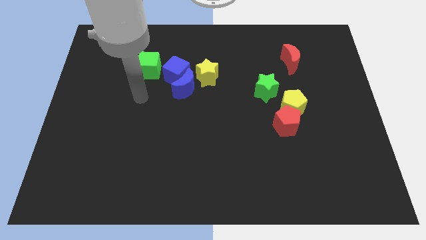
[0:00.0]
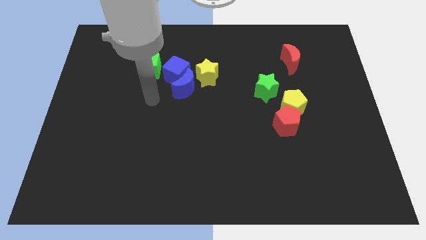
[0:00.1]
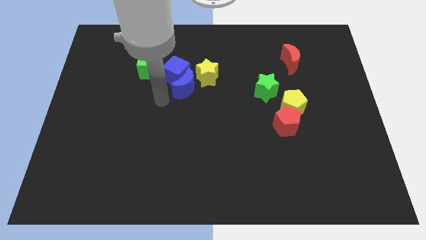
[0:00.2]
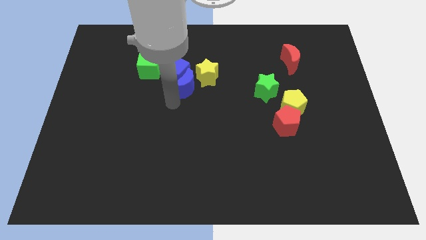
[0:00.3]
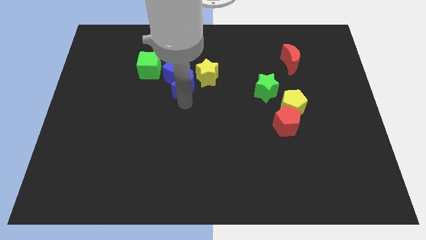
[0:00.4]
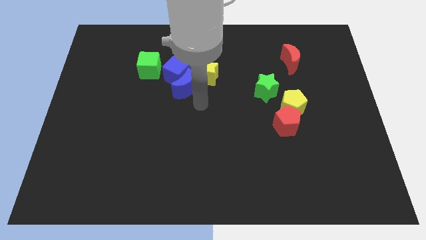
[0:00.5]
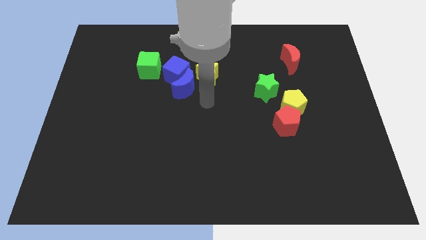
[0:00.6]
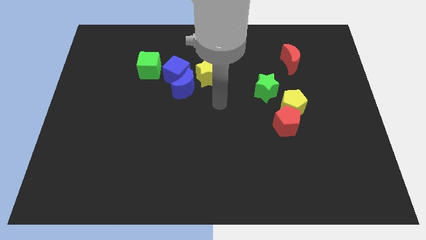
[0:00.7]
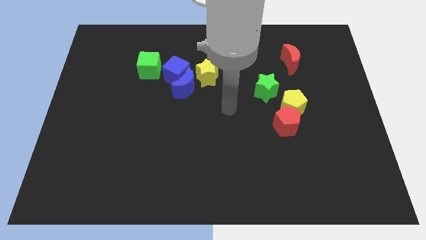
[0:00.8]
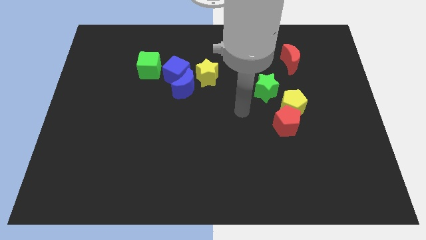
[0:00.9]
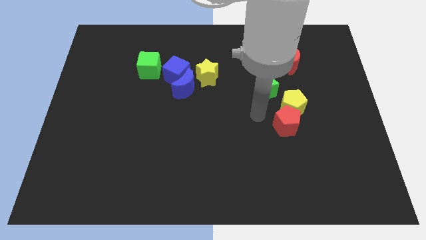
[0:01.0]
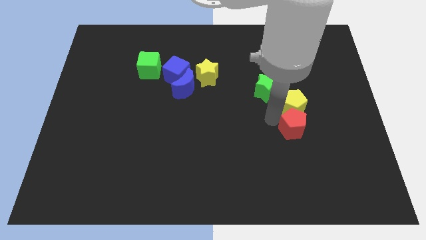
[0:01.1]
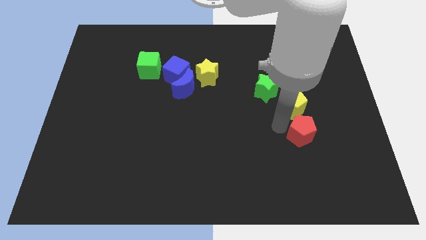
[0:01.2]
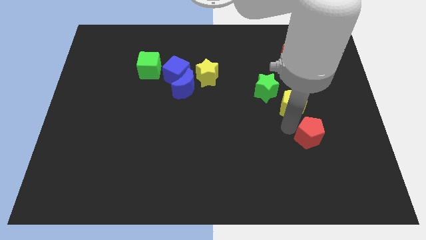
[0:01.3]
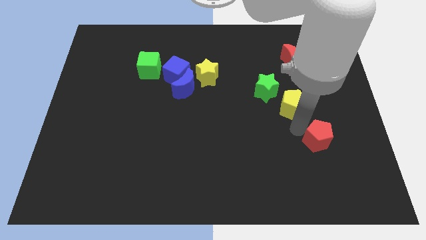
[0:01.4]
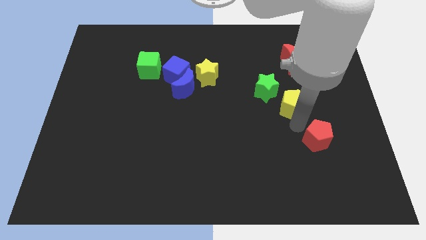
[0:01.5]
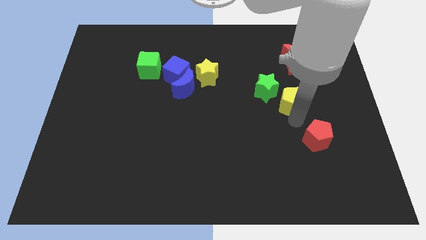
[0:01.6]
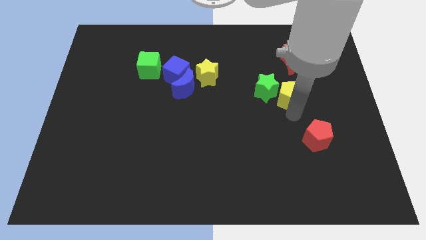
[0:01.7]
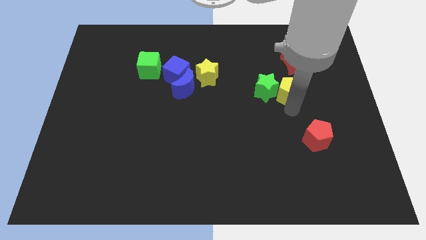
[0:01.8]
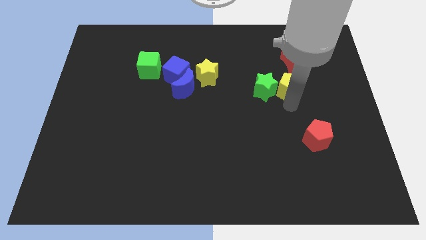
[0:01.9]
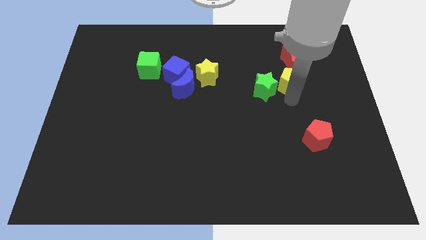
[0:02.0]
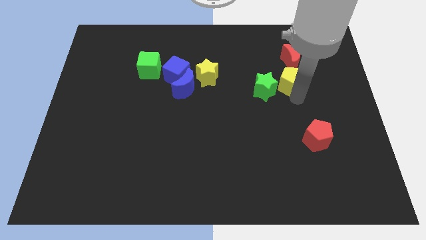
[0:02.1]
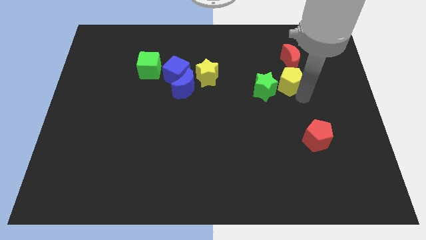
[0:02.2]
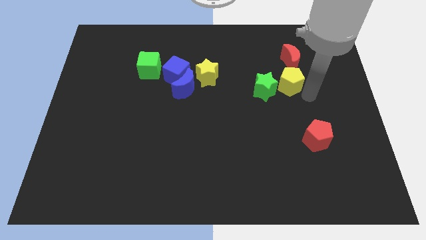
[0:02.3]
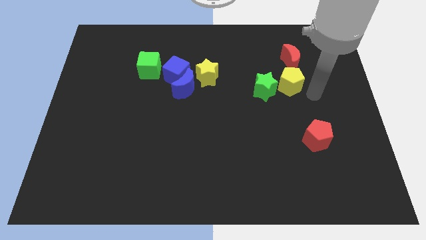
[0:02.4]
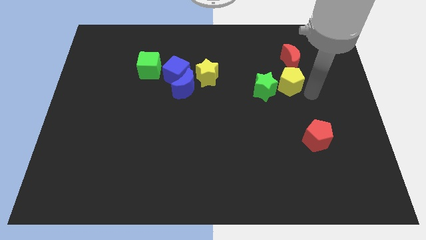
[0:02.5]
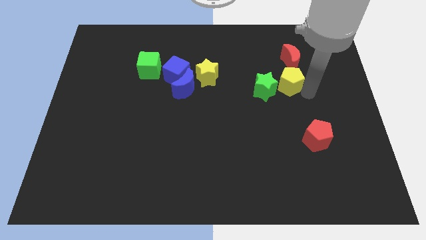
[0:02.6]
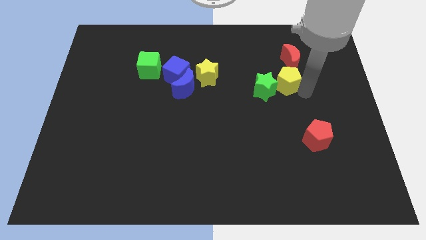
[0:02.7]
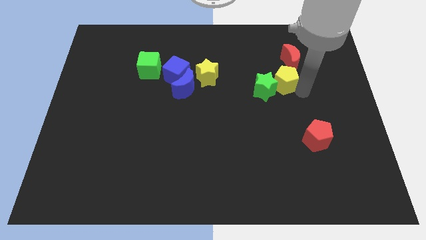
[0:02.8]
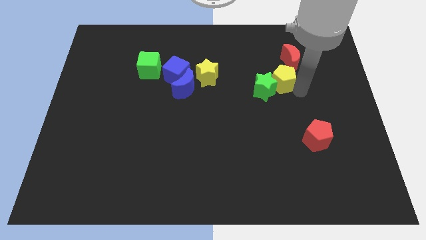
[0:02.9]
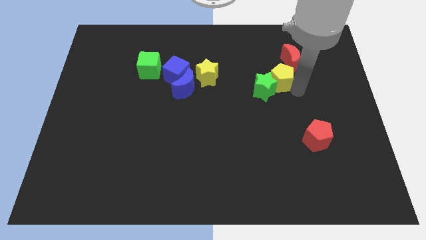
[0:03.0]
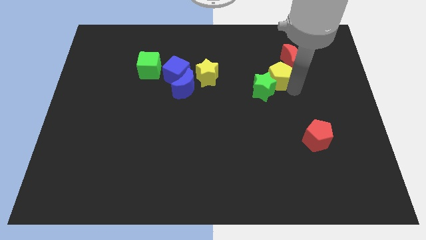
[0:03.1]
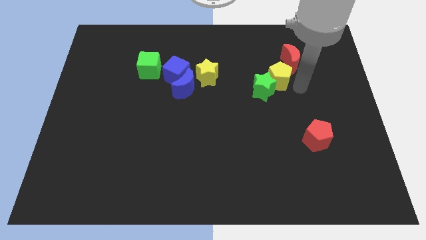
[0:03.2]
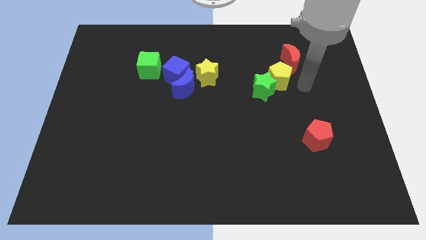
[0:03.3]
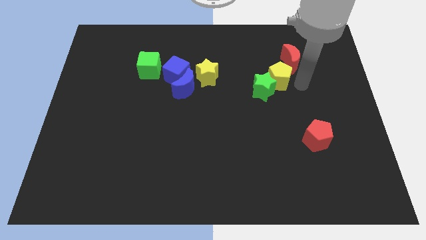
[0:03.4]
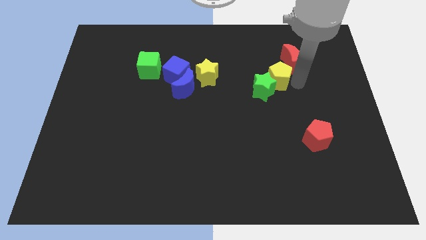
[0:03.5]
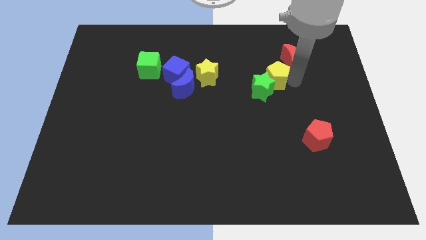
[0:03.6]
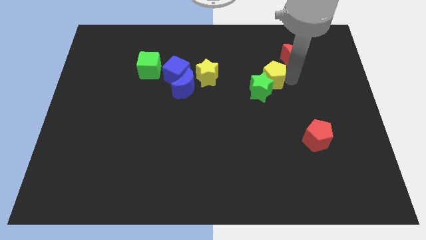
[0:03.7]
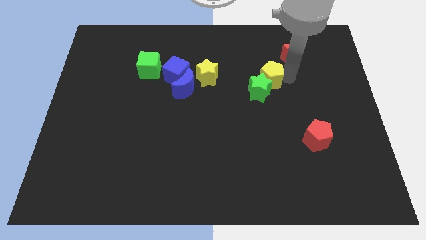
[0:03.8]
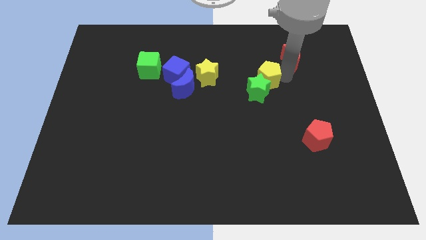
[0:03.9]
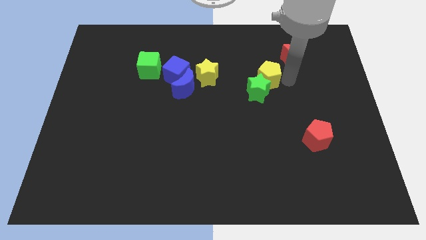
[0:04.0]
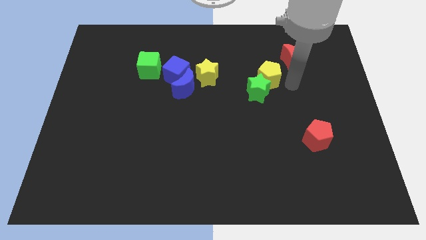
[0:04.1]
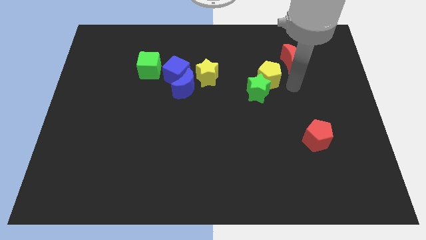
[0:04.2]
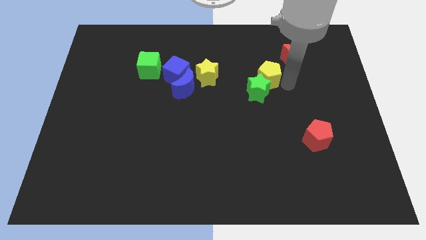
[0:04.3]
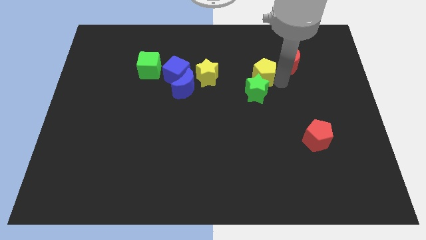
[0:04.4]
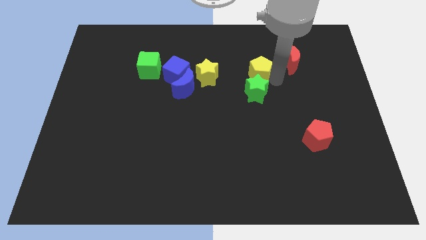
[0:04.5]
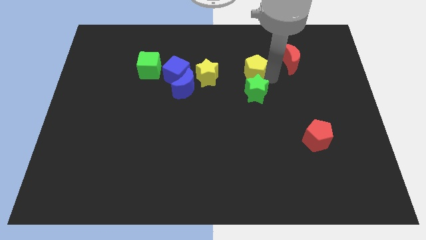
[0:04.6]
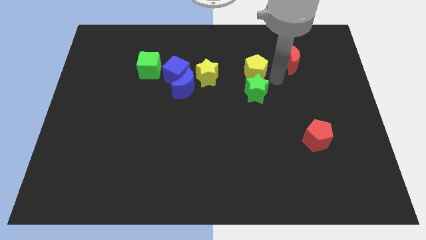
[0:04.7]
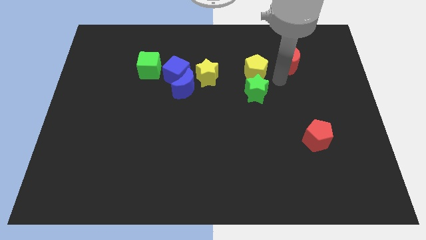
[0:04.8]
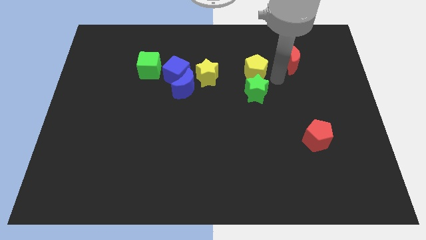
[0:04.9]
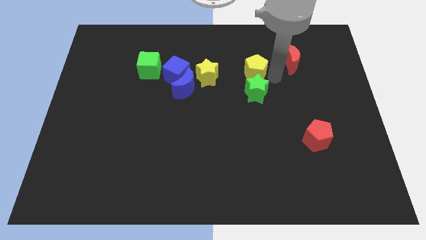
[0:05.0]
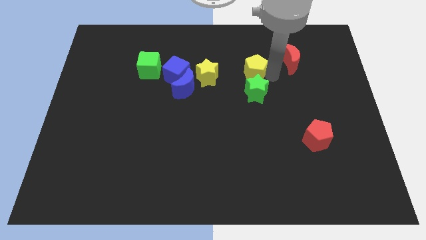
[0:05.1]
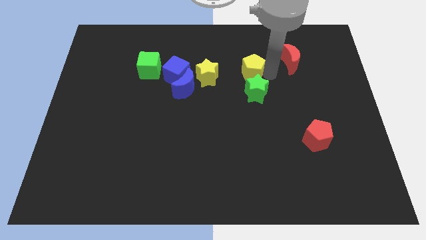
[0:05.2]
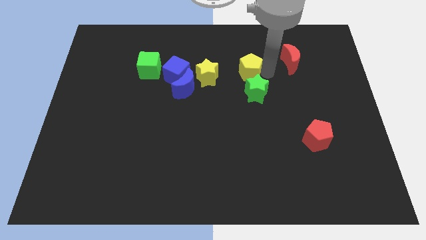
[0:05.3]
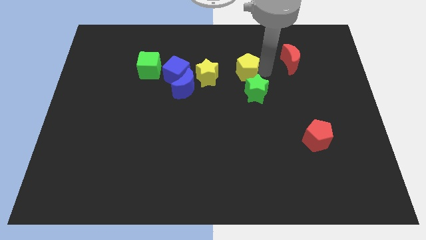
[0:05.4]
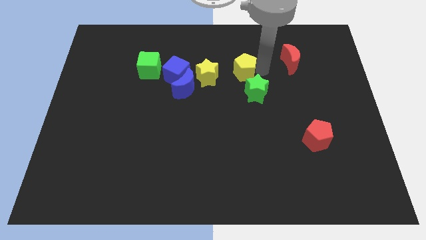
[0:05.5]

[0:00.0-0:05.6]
push the yellow pentagon to the top right side of the yellow star

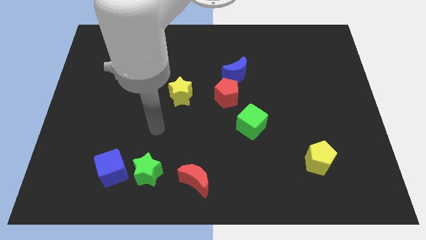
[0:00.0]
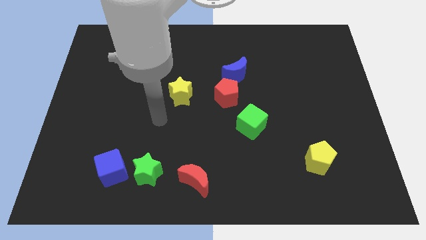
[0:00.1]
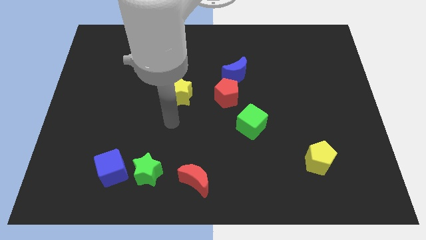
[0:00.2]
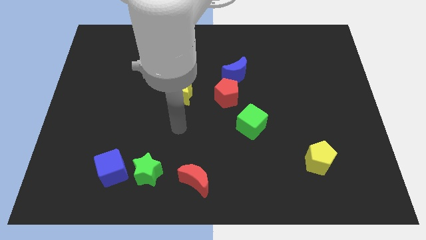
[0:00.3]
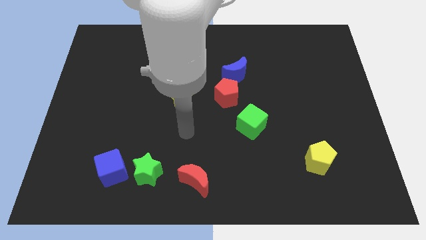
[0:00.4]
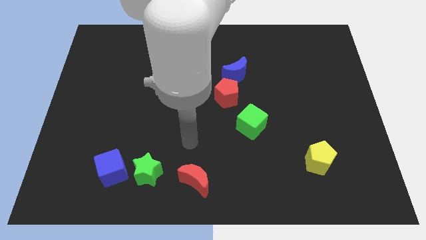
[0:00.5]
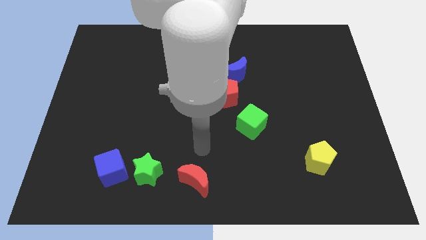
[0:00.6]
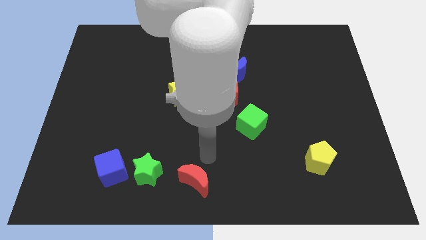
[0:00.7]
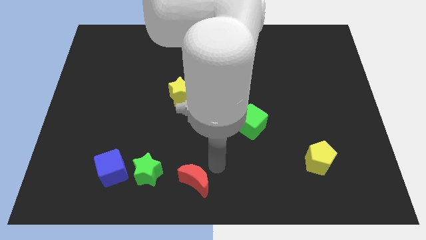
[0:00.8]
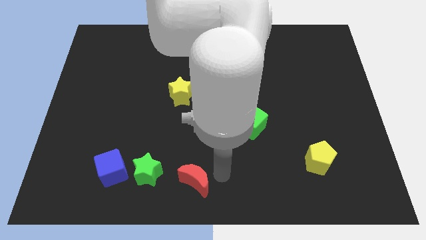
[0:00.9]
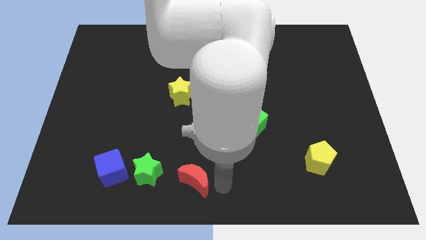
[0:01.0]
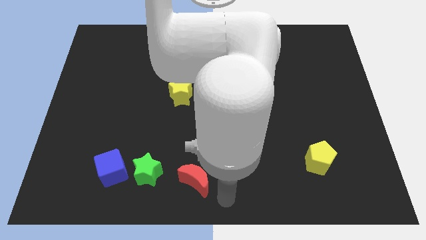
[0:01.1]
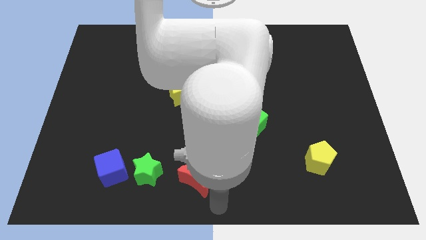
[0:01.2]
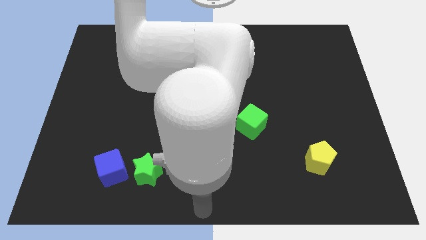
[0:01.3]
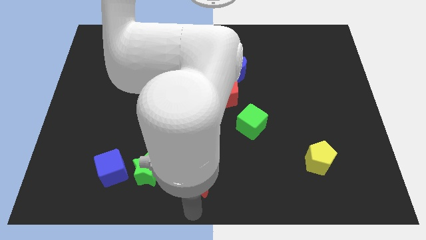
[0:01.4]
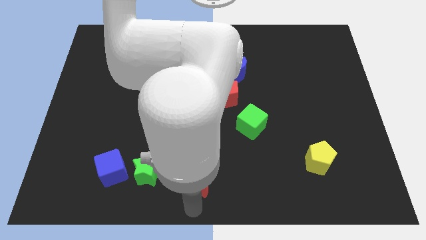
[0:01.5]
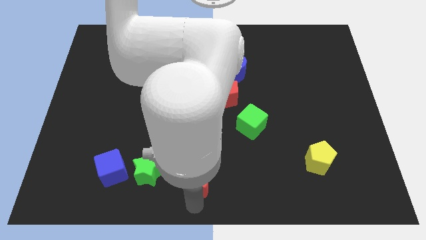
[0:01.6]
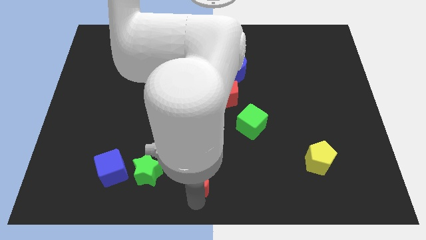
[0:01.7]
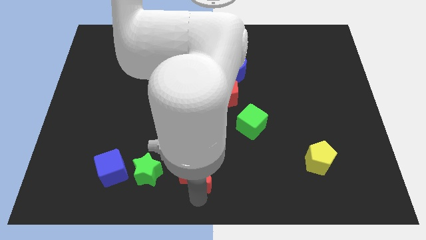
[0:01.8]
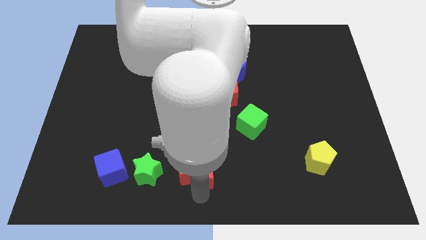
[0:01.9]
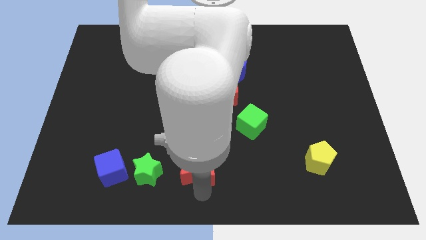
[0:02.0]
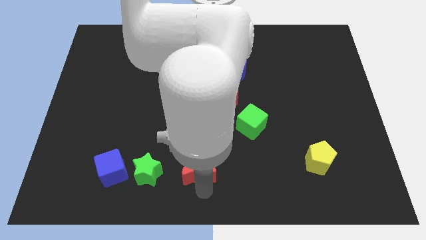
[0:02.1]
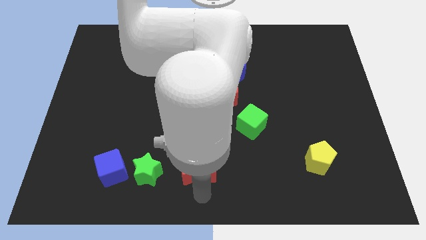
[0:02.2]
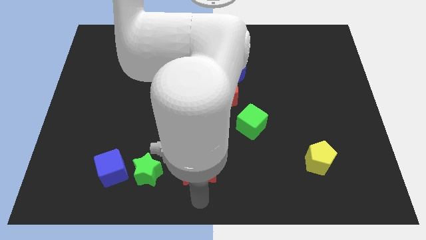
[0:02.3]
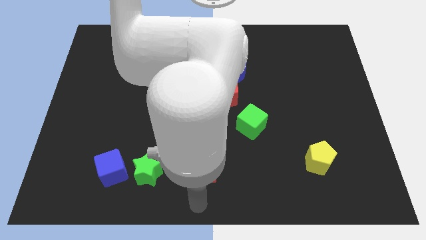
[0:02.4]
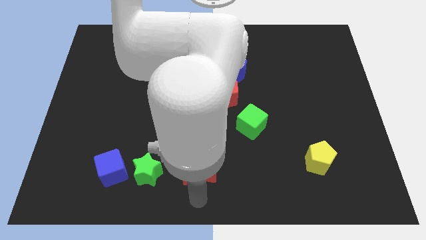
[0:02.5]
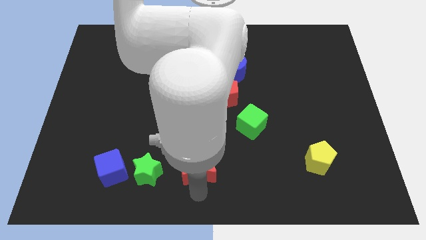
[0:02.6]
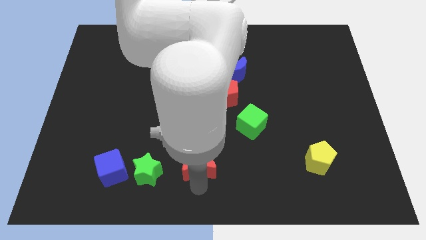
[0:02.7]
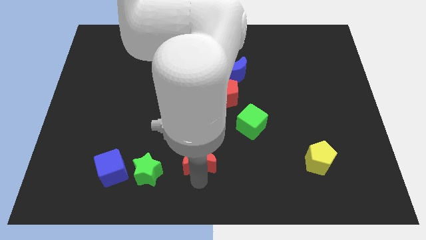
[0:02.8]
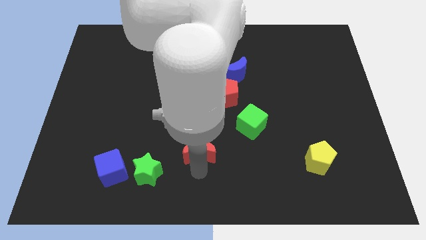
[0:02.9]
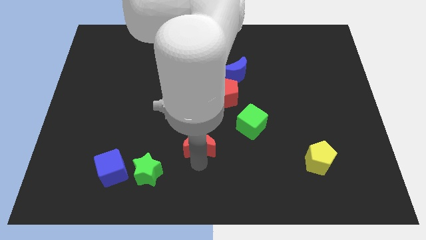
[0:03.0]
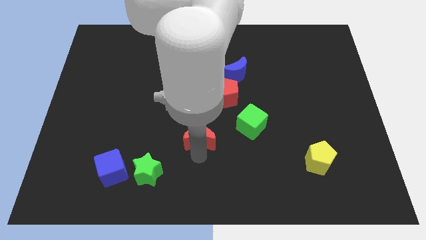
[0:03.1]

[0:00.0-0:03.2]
slide the red moon just left of the green cube

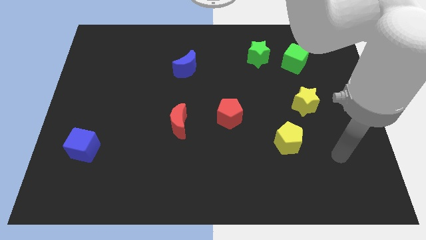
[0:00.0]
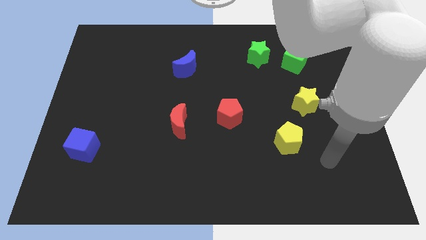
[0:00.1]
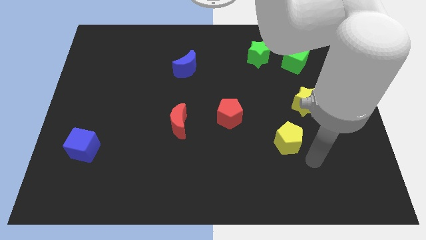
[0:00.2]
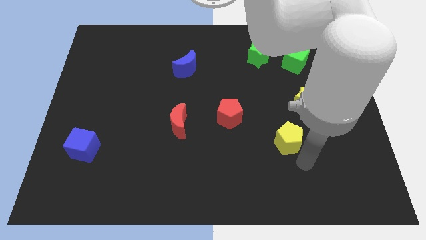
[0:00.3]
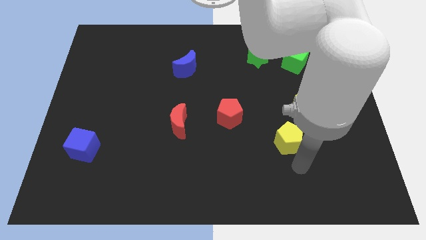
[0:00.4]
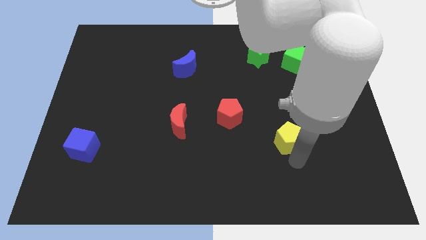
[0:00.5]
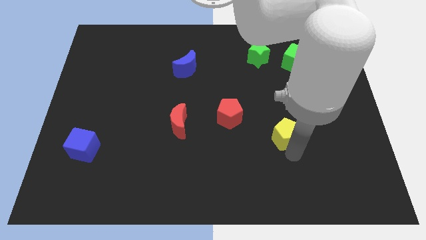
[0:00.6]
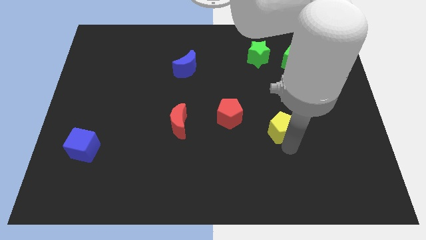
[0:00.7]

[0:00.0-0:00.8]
move the yellow pentagon to the right side of the red pentagon
